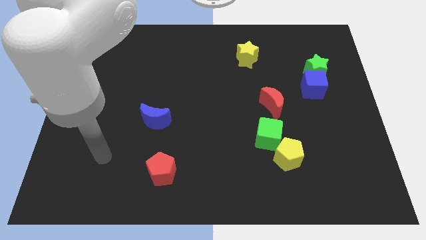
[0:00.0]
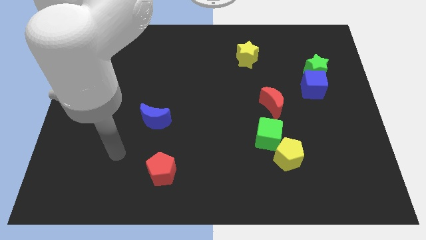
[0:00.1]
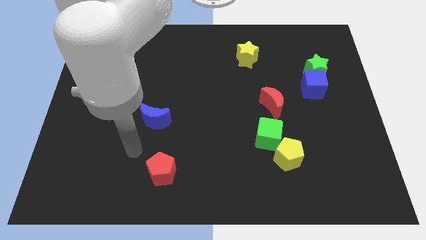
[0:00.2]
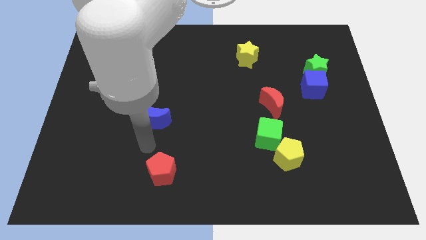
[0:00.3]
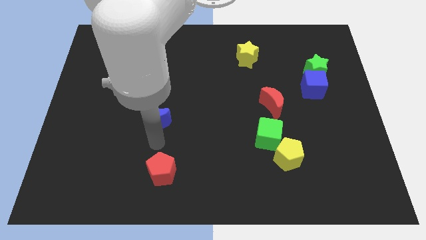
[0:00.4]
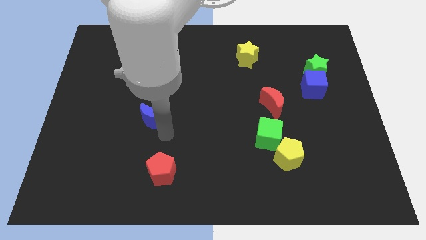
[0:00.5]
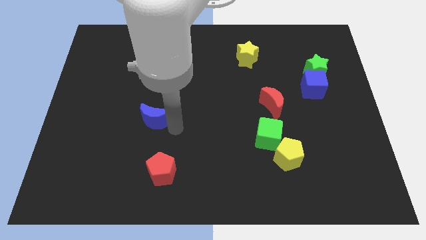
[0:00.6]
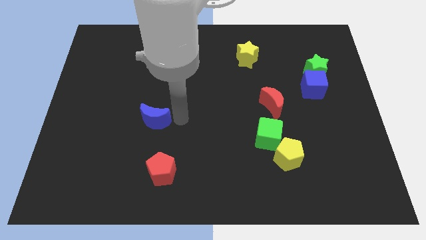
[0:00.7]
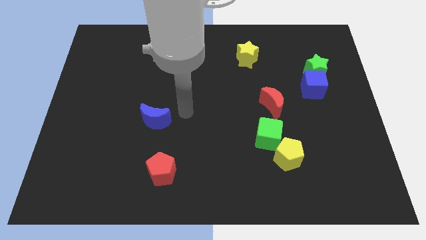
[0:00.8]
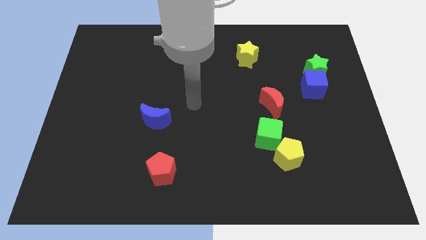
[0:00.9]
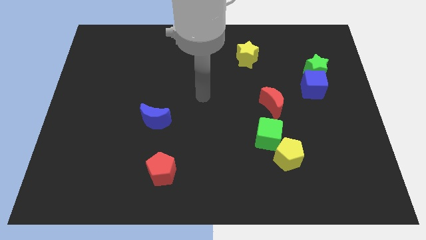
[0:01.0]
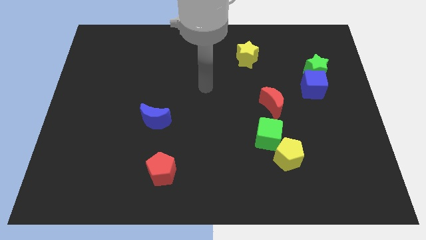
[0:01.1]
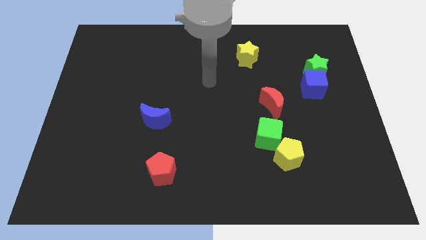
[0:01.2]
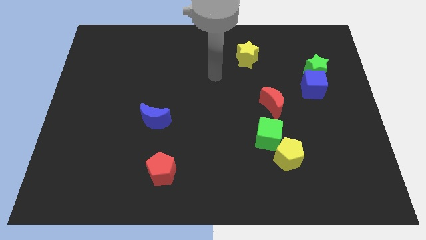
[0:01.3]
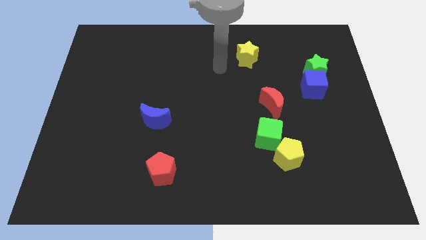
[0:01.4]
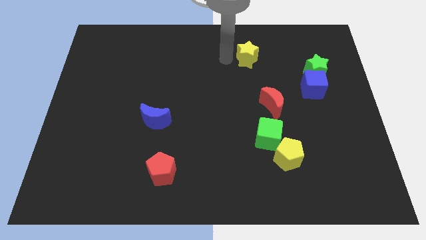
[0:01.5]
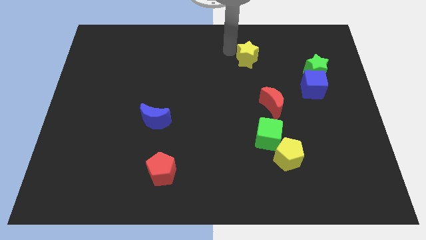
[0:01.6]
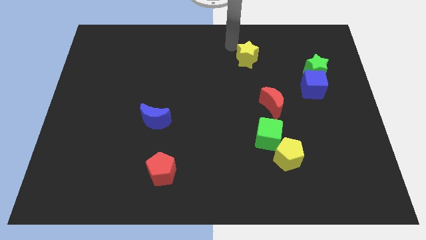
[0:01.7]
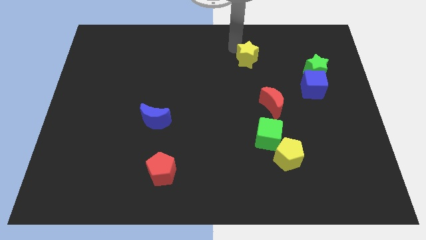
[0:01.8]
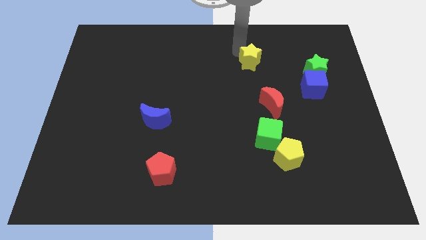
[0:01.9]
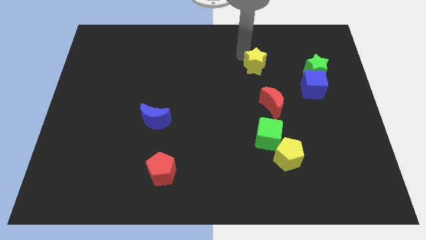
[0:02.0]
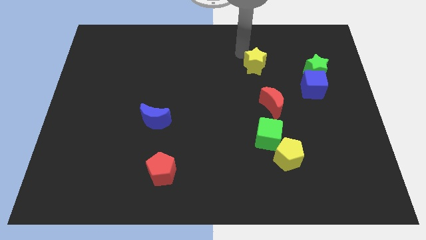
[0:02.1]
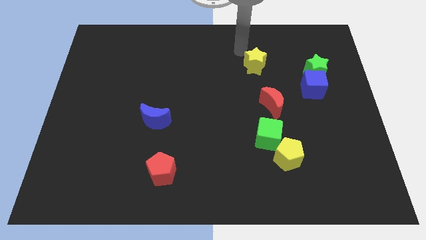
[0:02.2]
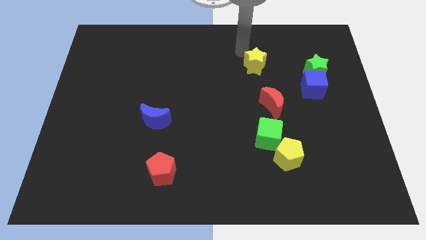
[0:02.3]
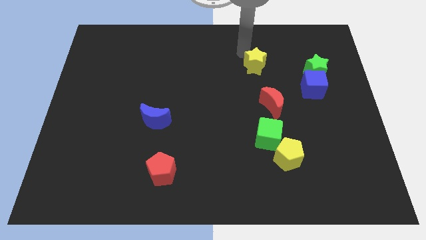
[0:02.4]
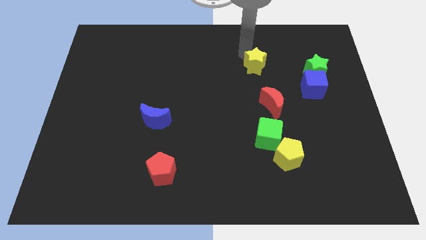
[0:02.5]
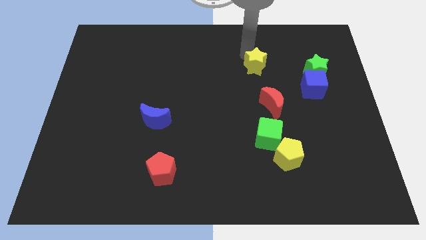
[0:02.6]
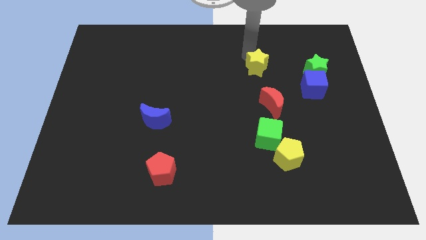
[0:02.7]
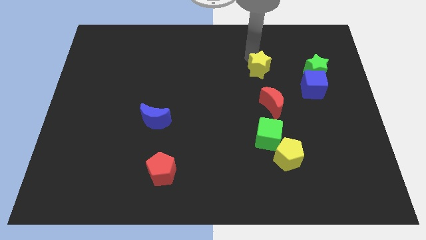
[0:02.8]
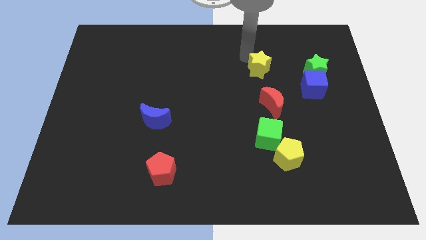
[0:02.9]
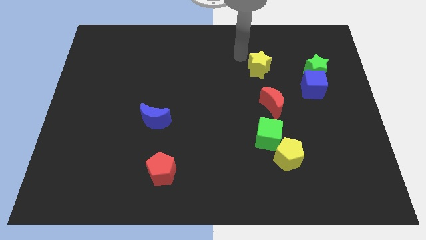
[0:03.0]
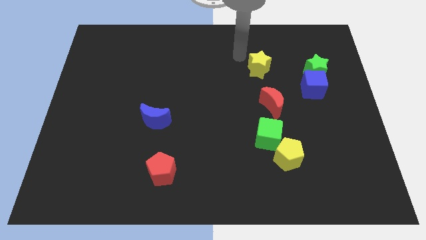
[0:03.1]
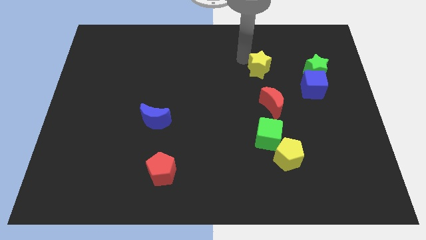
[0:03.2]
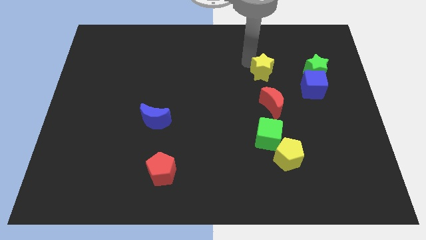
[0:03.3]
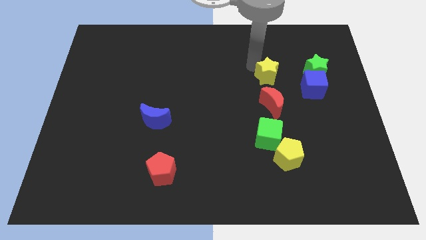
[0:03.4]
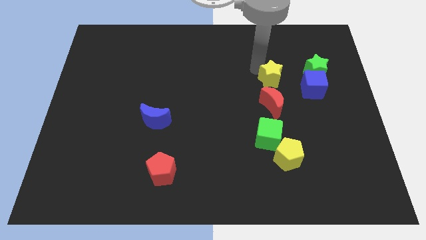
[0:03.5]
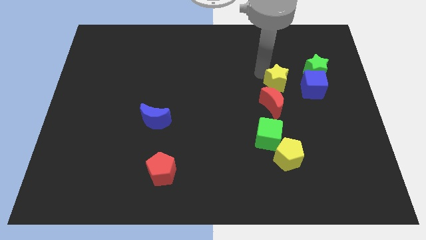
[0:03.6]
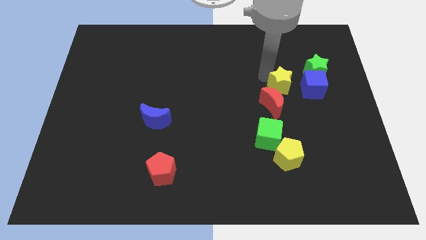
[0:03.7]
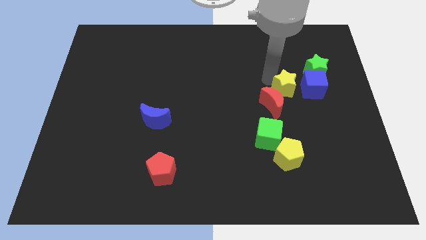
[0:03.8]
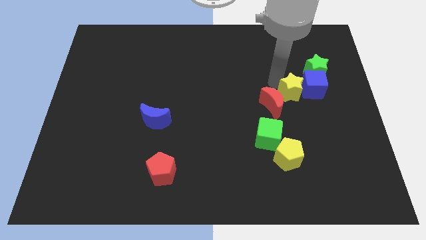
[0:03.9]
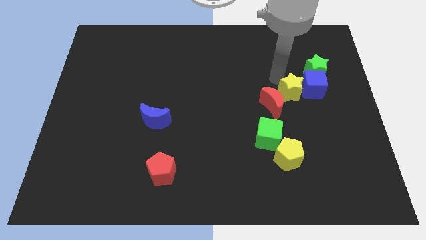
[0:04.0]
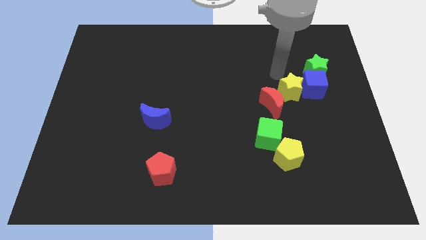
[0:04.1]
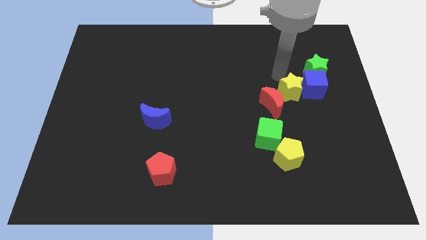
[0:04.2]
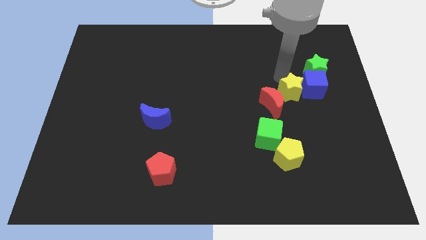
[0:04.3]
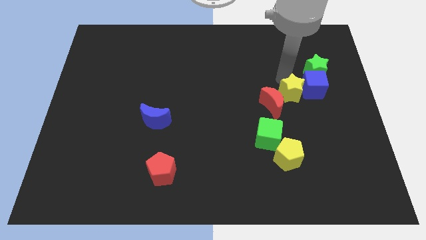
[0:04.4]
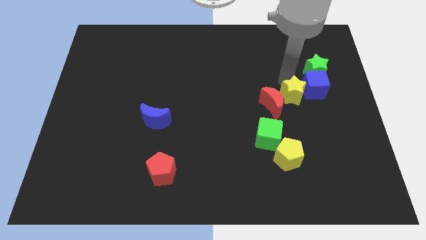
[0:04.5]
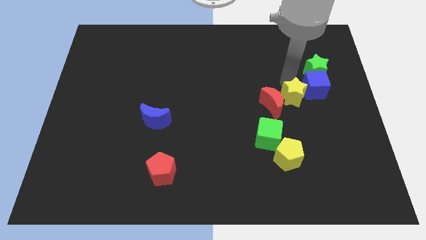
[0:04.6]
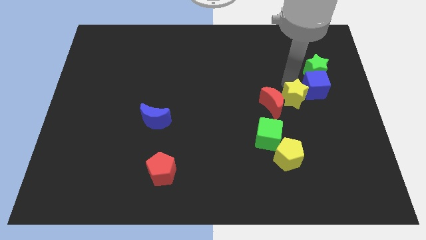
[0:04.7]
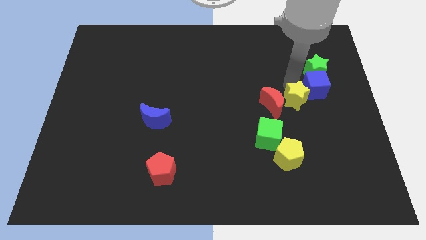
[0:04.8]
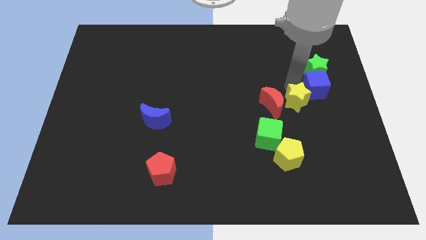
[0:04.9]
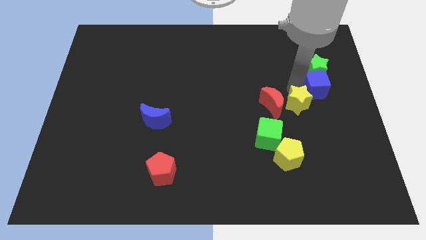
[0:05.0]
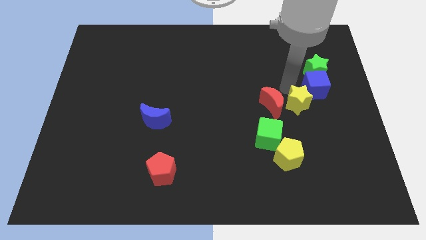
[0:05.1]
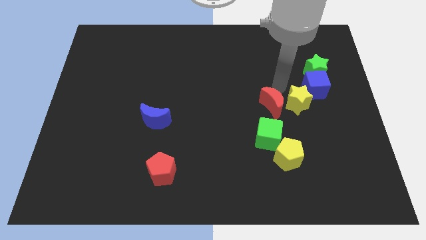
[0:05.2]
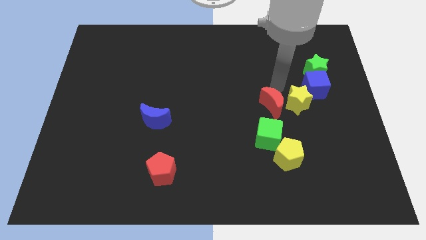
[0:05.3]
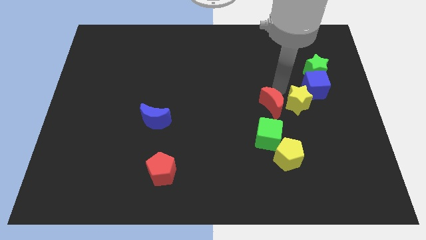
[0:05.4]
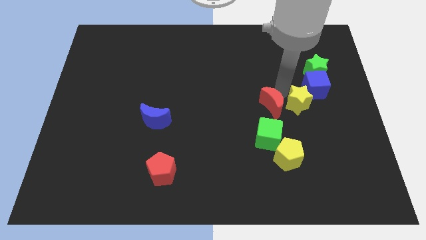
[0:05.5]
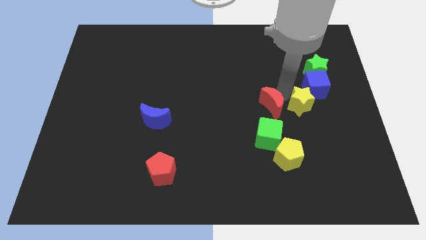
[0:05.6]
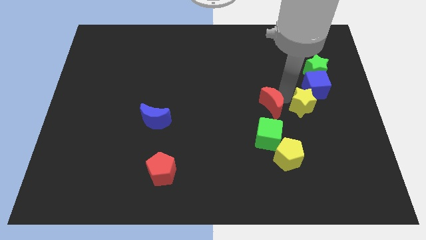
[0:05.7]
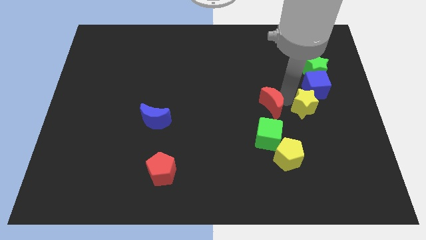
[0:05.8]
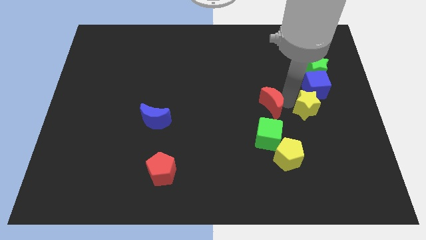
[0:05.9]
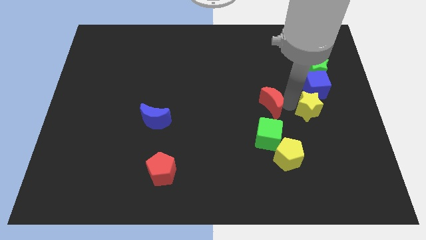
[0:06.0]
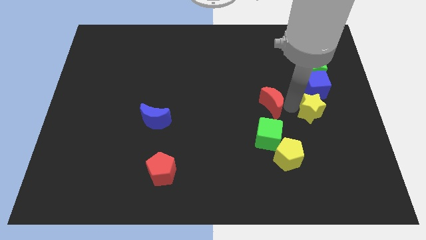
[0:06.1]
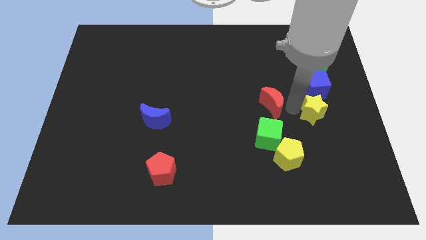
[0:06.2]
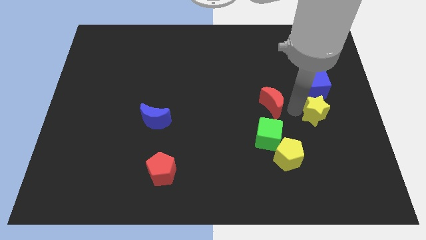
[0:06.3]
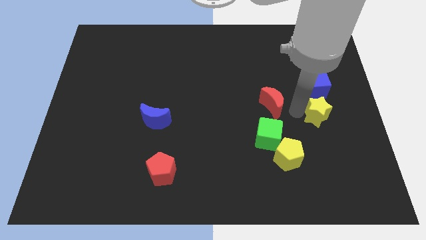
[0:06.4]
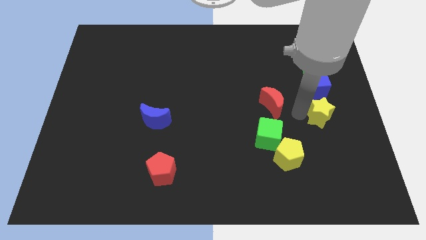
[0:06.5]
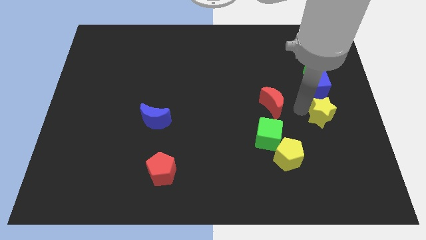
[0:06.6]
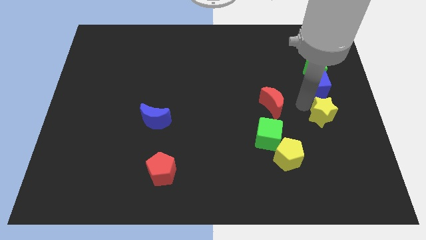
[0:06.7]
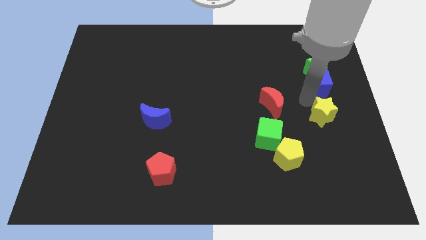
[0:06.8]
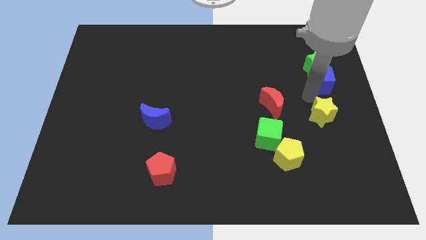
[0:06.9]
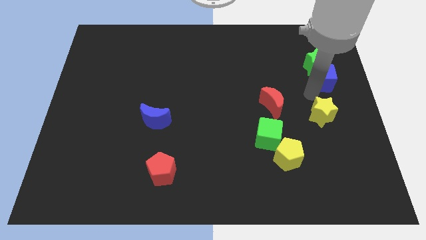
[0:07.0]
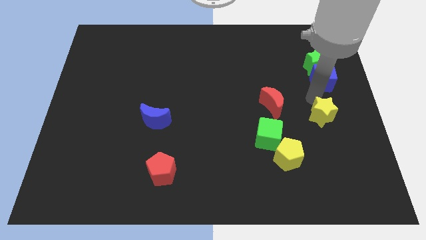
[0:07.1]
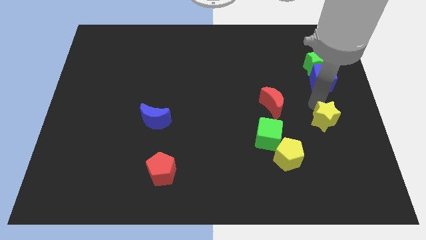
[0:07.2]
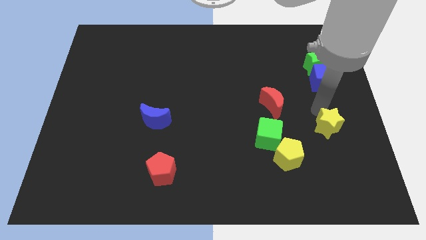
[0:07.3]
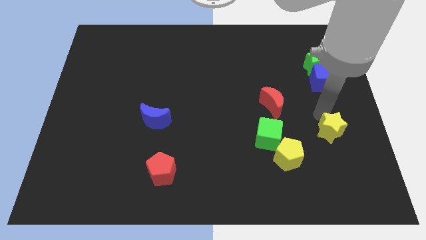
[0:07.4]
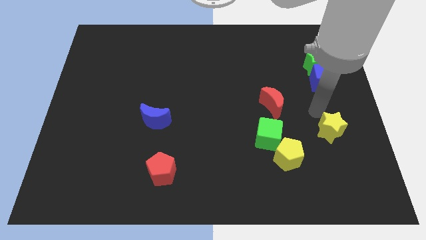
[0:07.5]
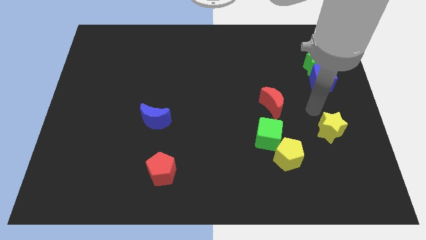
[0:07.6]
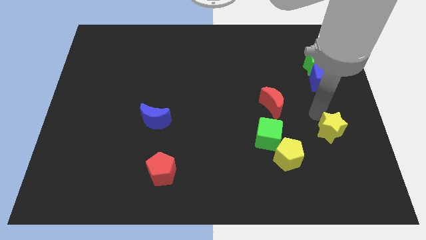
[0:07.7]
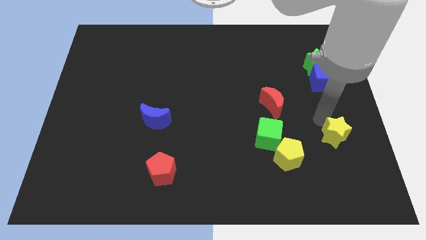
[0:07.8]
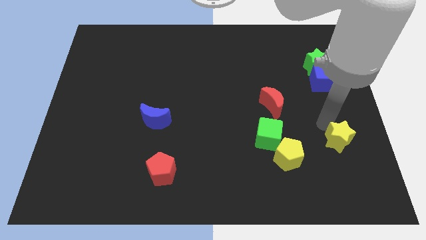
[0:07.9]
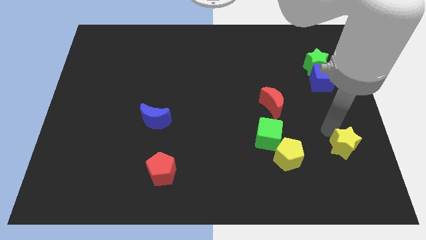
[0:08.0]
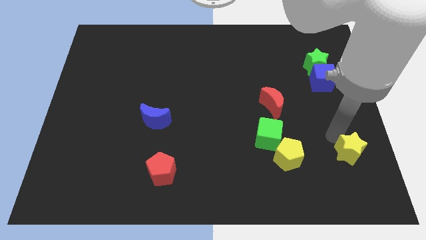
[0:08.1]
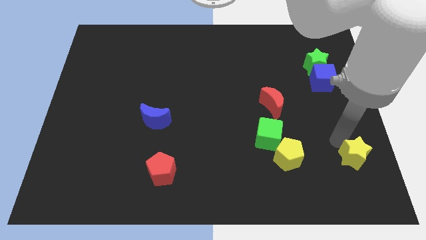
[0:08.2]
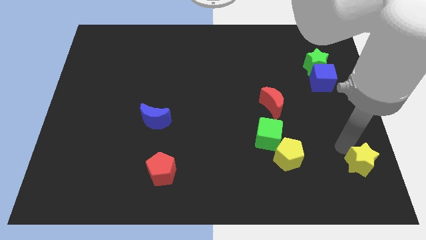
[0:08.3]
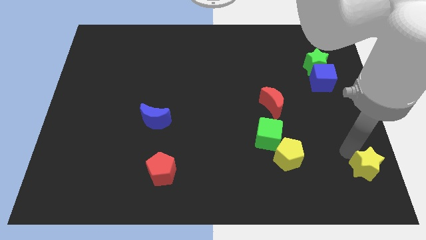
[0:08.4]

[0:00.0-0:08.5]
put the yellow star to the bottom right corner
